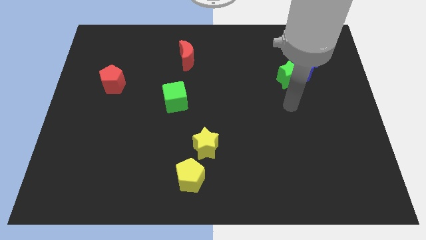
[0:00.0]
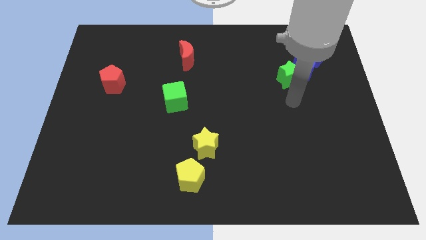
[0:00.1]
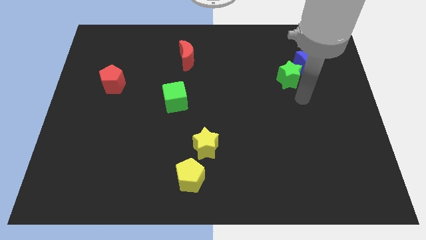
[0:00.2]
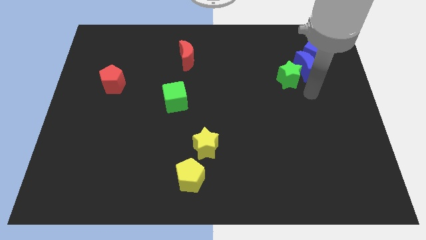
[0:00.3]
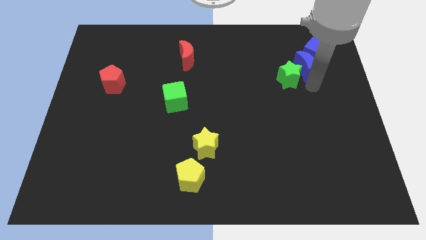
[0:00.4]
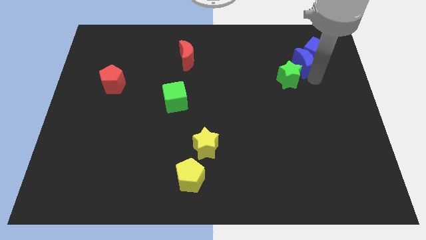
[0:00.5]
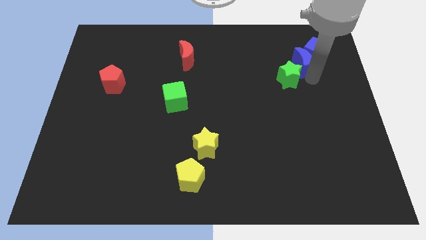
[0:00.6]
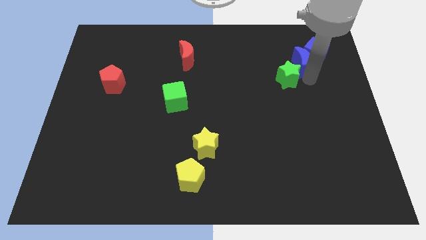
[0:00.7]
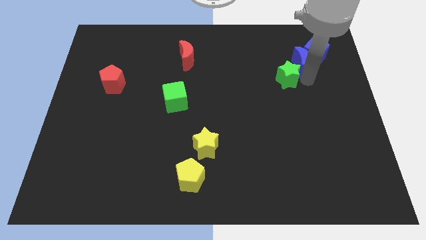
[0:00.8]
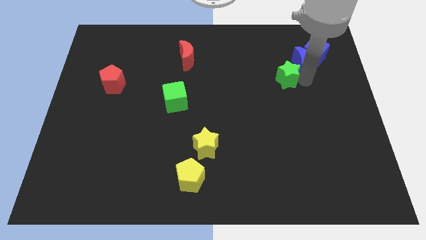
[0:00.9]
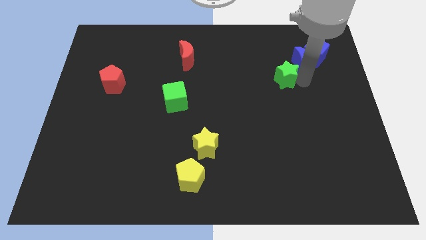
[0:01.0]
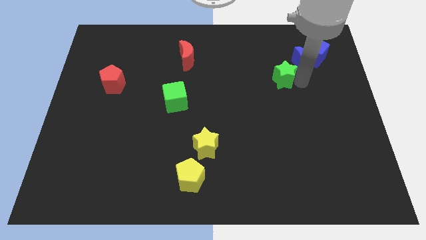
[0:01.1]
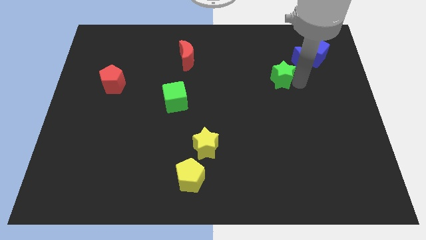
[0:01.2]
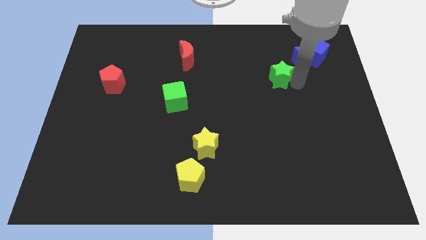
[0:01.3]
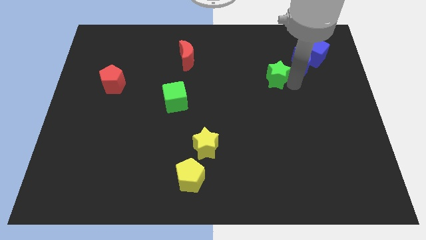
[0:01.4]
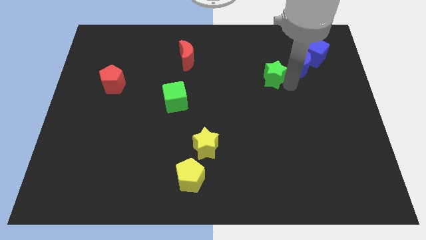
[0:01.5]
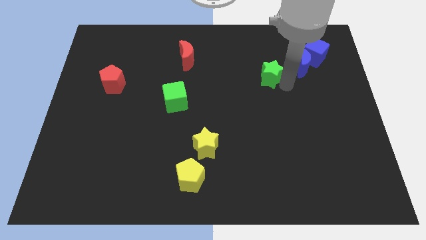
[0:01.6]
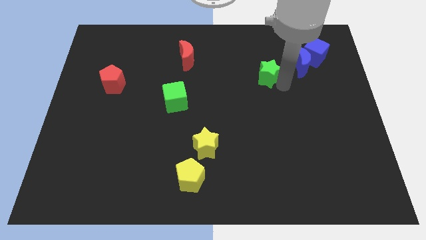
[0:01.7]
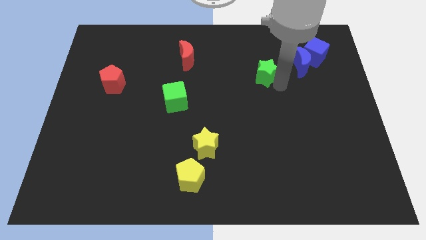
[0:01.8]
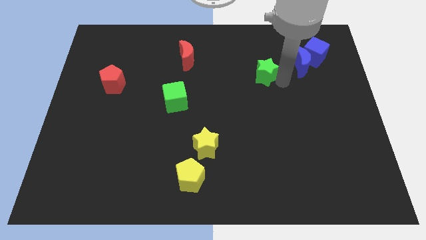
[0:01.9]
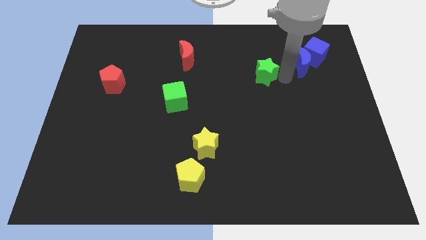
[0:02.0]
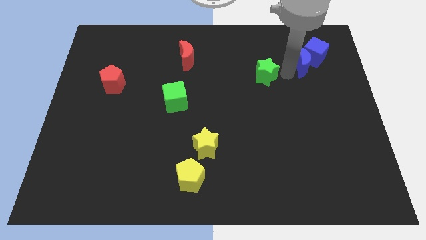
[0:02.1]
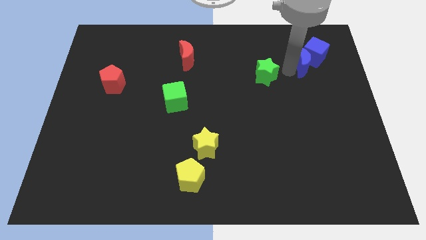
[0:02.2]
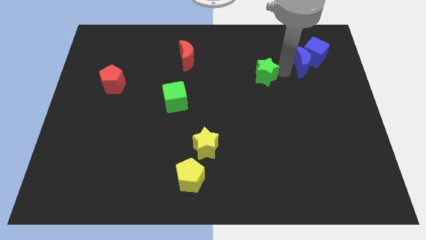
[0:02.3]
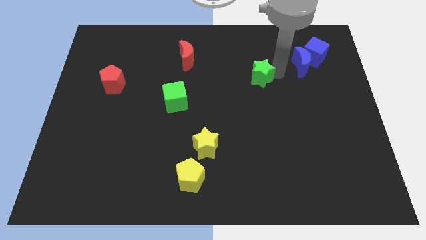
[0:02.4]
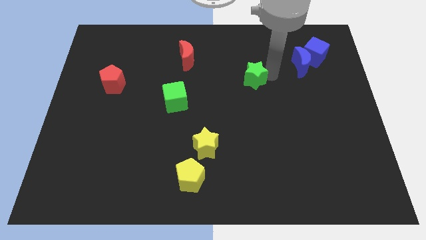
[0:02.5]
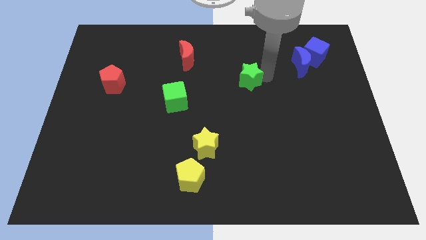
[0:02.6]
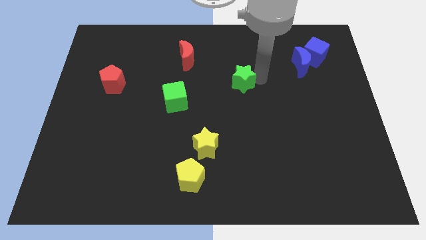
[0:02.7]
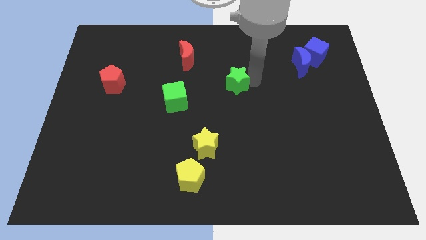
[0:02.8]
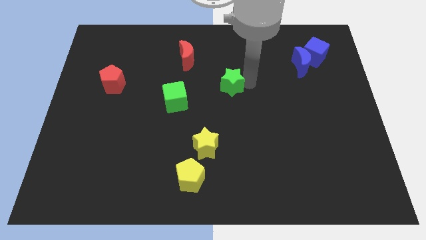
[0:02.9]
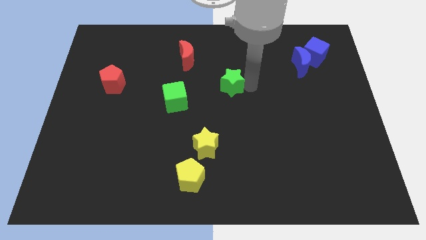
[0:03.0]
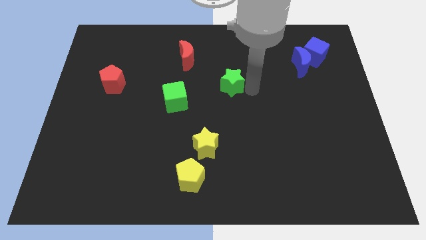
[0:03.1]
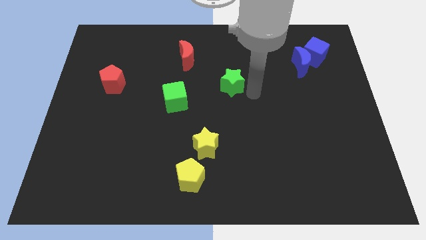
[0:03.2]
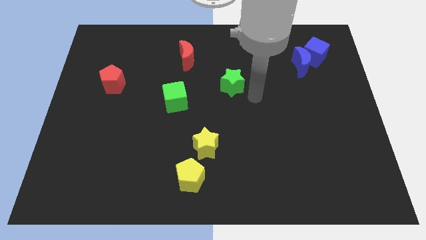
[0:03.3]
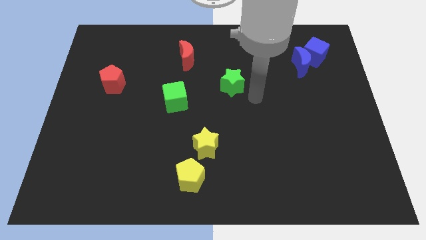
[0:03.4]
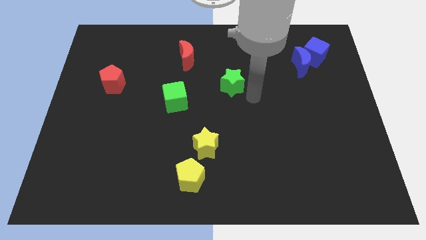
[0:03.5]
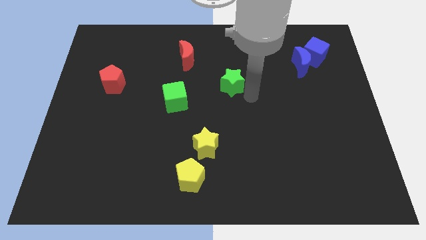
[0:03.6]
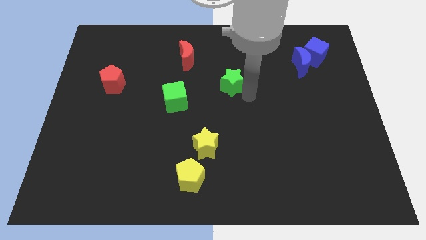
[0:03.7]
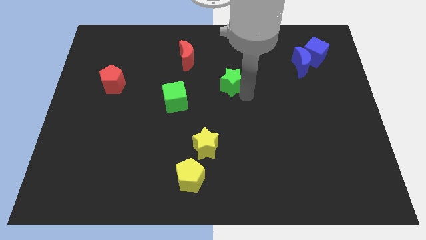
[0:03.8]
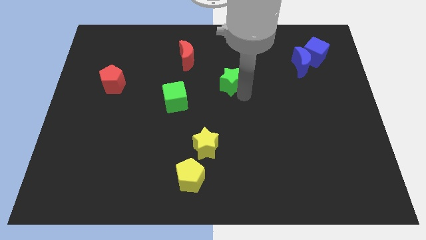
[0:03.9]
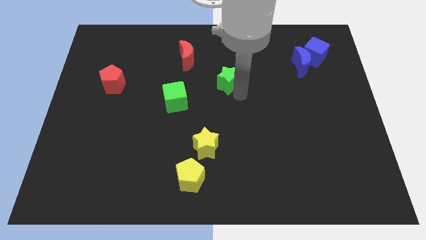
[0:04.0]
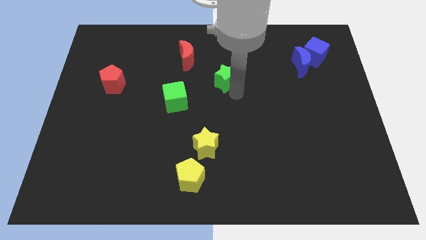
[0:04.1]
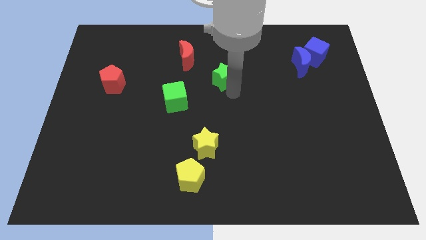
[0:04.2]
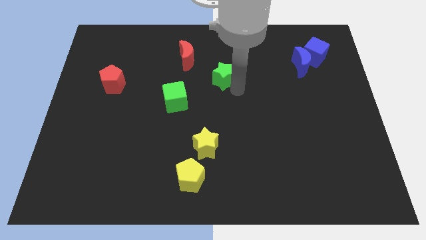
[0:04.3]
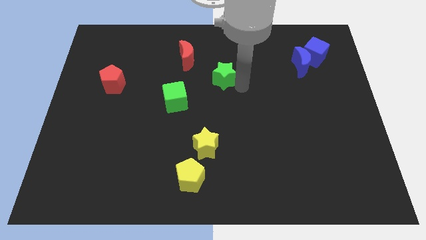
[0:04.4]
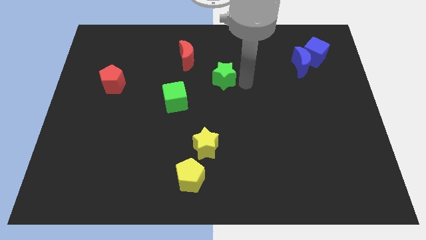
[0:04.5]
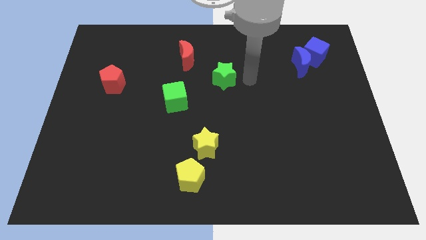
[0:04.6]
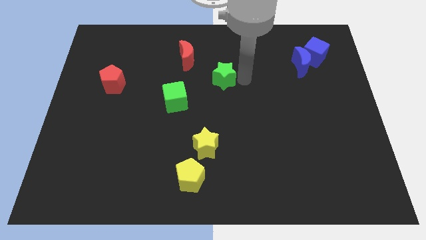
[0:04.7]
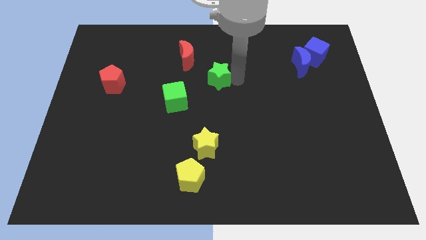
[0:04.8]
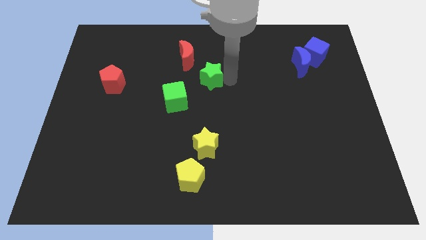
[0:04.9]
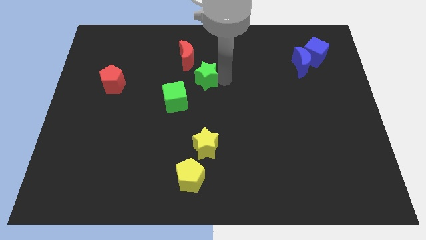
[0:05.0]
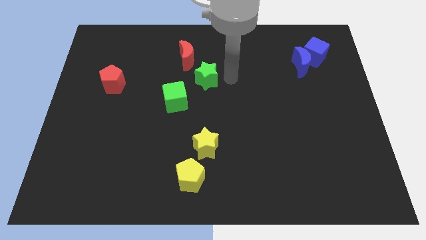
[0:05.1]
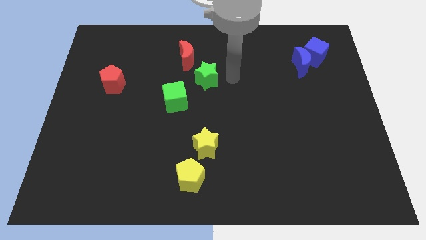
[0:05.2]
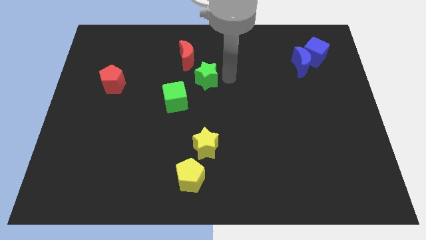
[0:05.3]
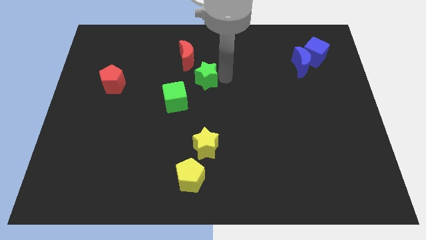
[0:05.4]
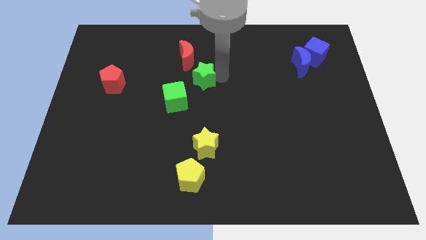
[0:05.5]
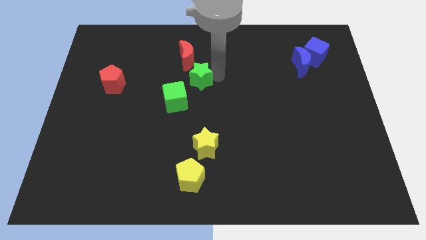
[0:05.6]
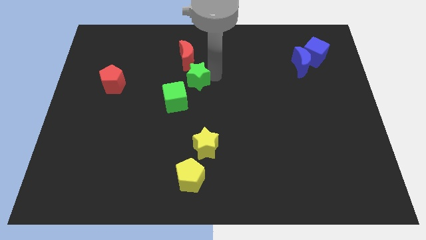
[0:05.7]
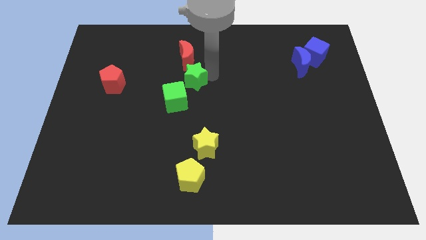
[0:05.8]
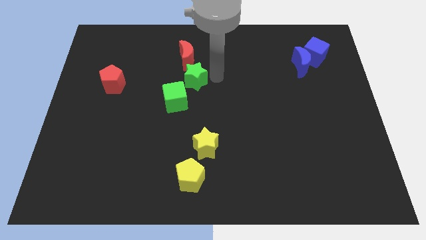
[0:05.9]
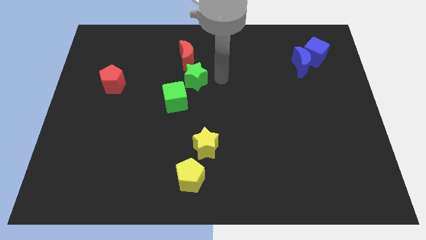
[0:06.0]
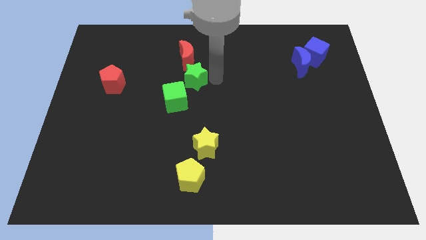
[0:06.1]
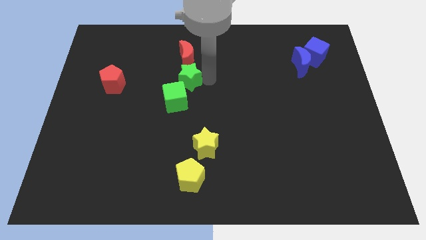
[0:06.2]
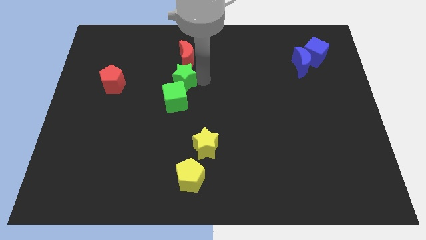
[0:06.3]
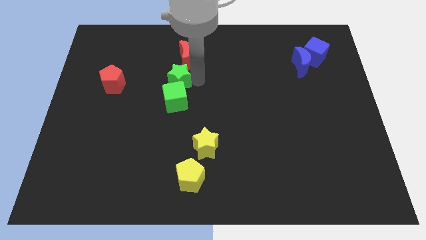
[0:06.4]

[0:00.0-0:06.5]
slide the green star diagonally up and to the left of the green cube

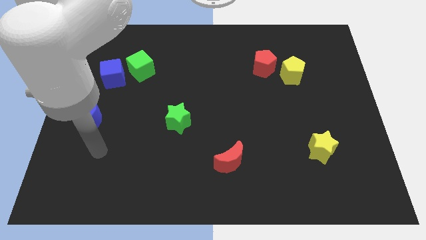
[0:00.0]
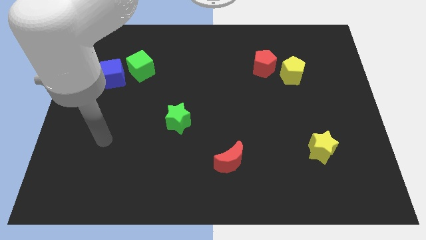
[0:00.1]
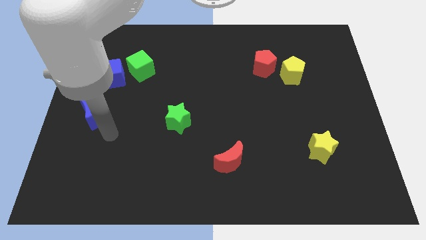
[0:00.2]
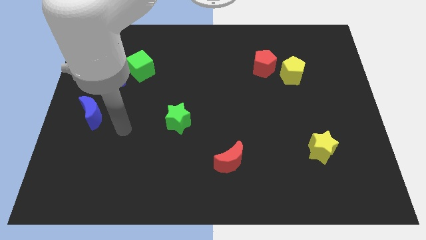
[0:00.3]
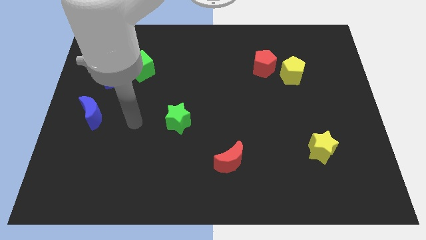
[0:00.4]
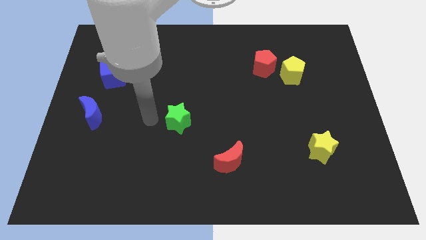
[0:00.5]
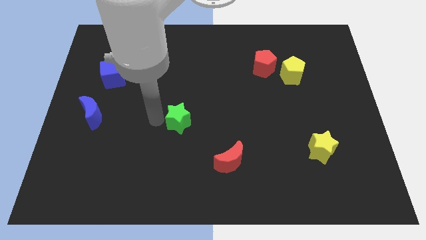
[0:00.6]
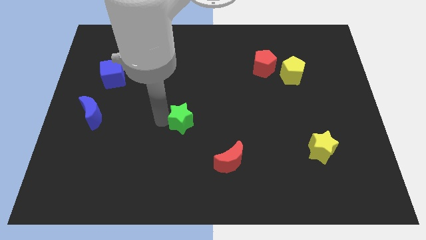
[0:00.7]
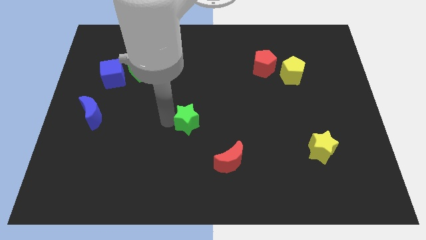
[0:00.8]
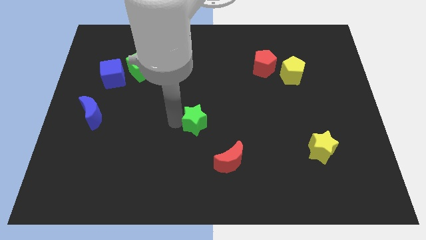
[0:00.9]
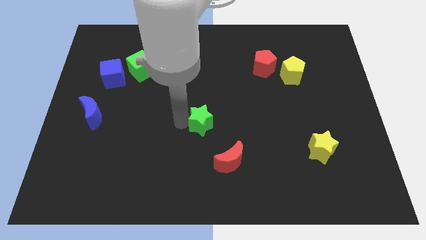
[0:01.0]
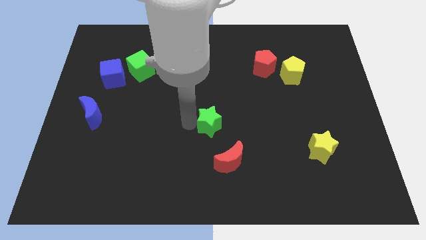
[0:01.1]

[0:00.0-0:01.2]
move the green star above the red moon
